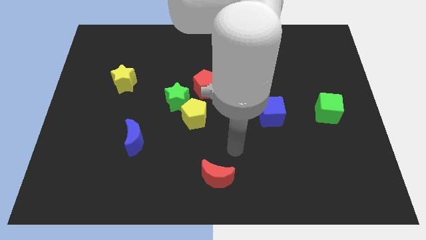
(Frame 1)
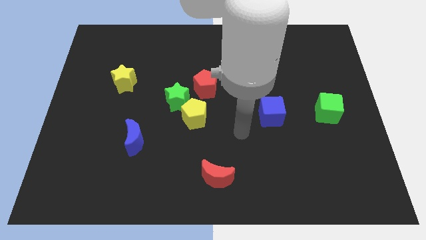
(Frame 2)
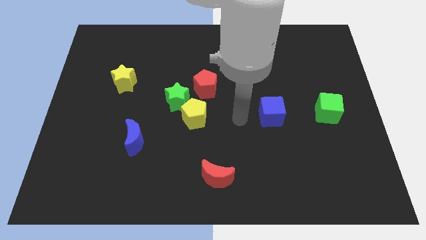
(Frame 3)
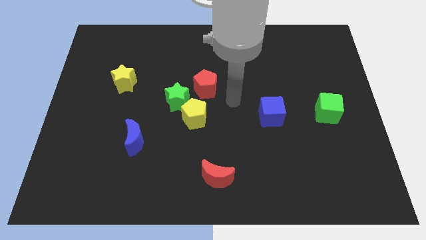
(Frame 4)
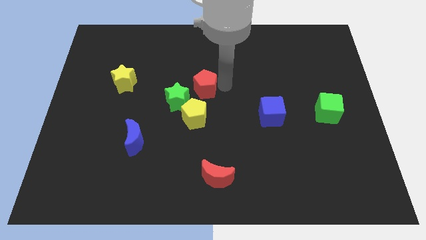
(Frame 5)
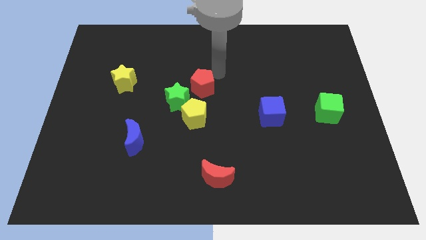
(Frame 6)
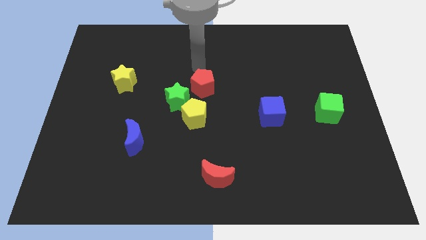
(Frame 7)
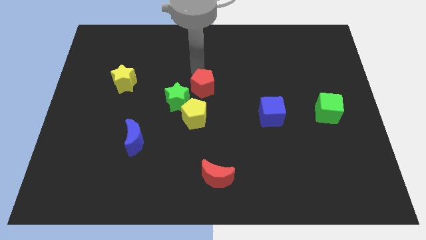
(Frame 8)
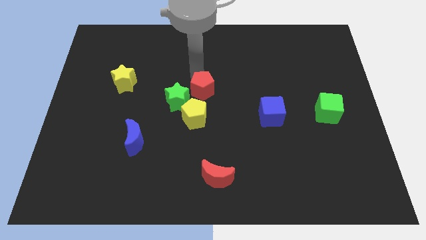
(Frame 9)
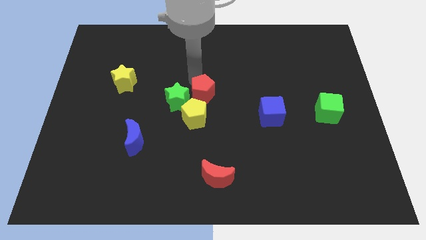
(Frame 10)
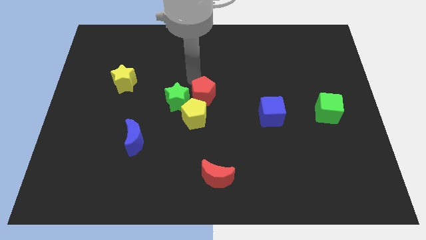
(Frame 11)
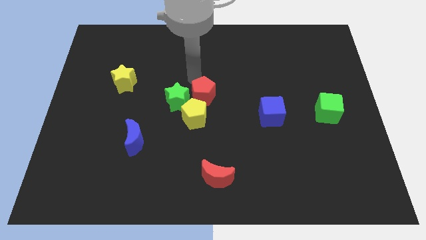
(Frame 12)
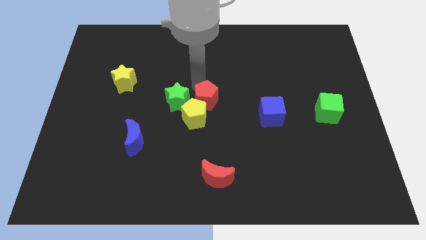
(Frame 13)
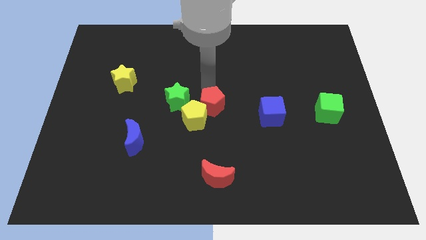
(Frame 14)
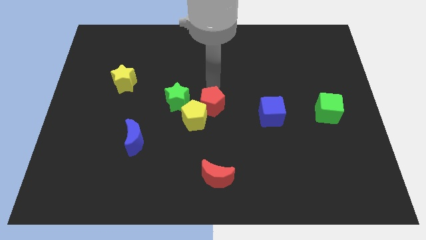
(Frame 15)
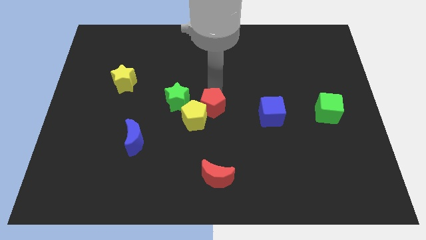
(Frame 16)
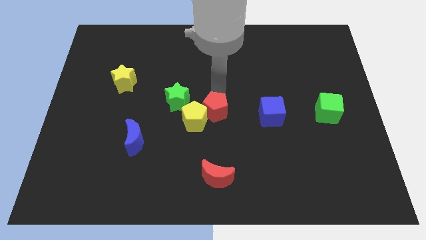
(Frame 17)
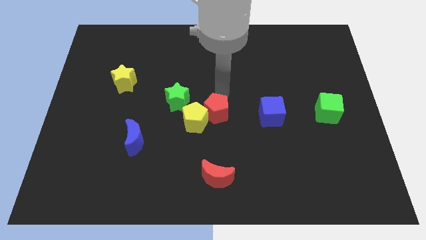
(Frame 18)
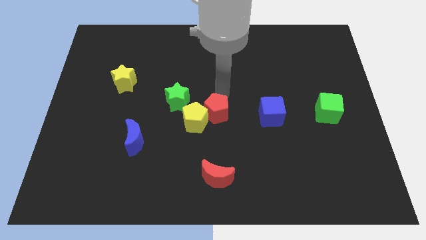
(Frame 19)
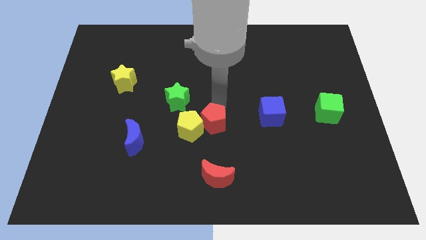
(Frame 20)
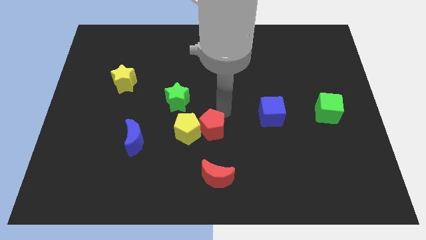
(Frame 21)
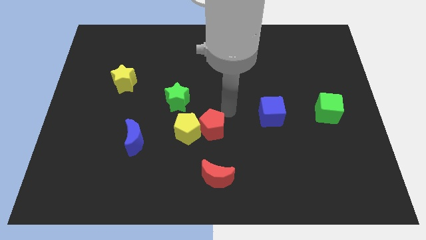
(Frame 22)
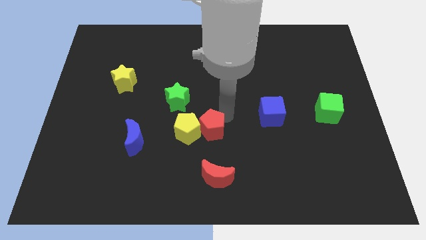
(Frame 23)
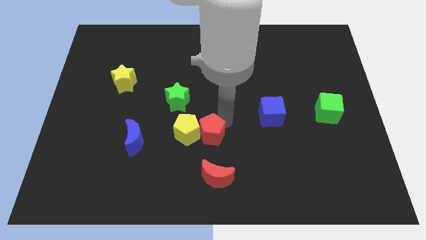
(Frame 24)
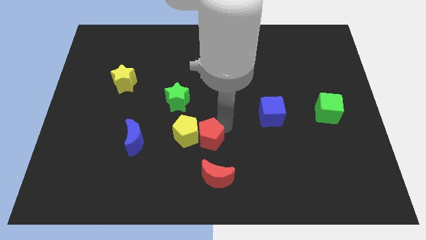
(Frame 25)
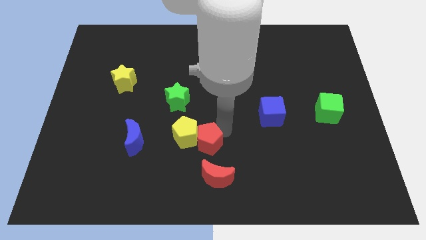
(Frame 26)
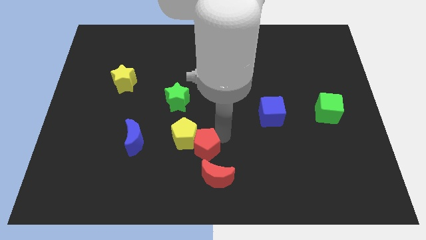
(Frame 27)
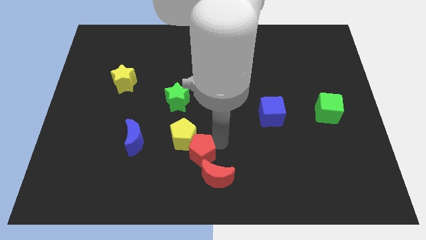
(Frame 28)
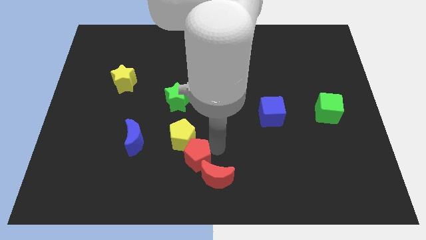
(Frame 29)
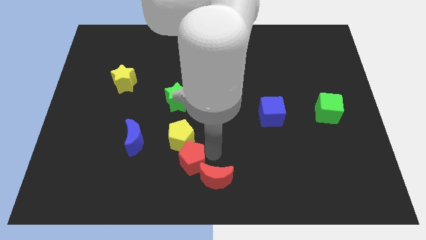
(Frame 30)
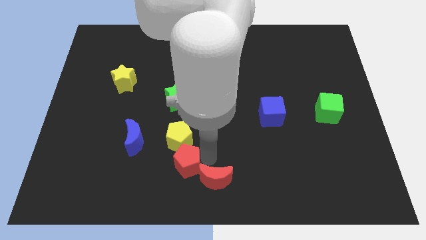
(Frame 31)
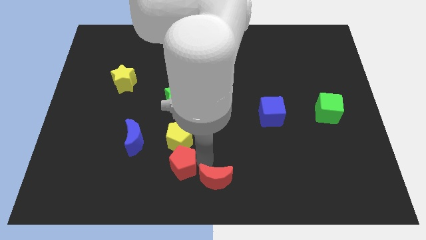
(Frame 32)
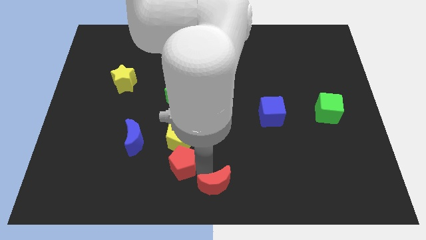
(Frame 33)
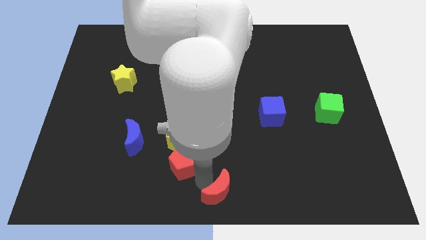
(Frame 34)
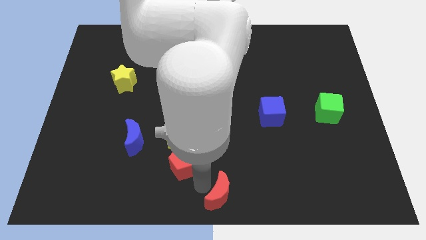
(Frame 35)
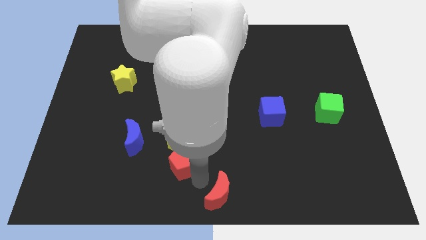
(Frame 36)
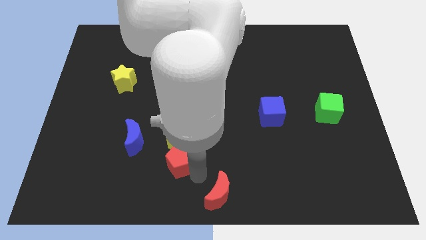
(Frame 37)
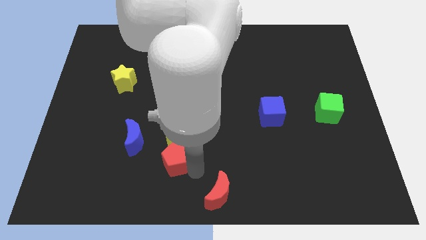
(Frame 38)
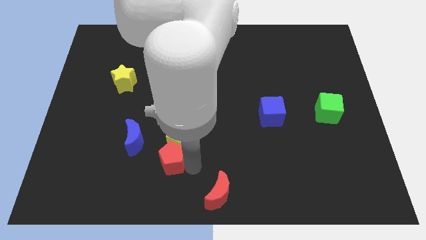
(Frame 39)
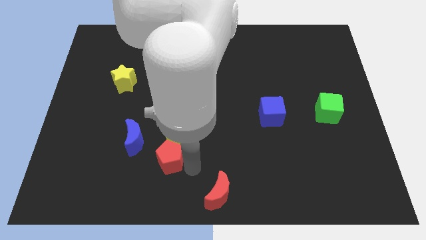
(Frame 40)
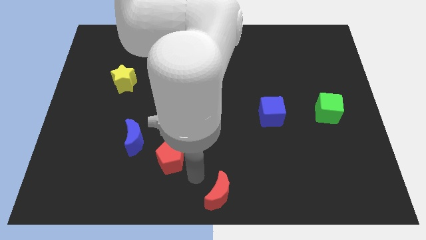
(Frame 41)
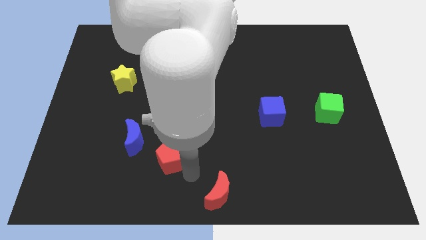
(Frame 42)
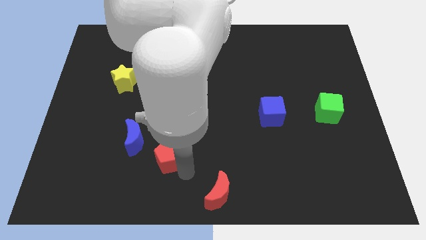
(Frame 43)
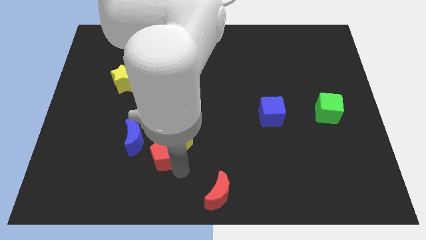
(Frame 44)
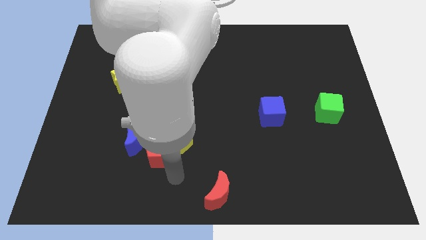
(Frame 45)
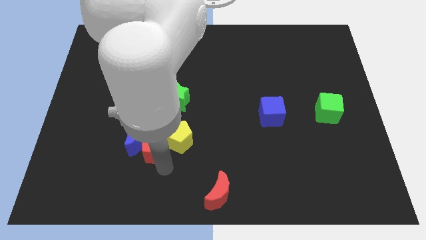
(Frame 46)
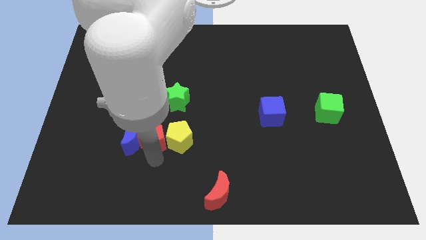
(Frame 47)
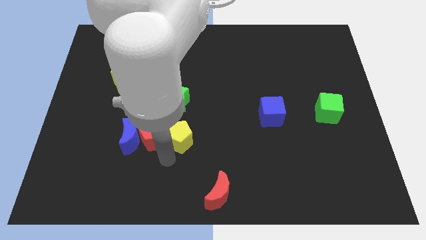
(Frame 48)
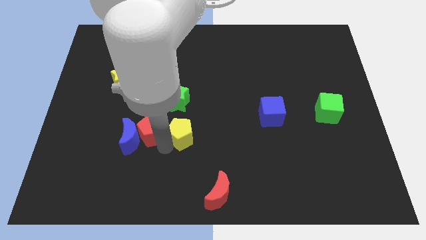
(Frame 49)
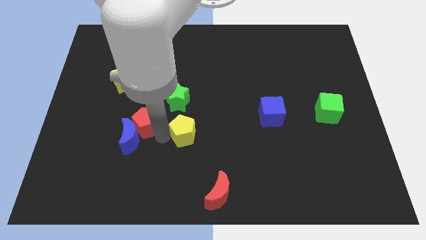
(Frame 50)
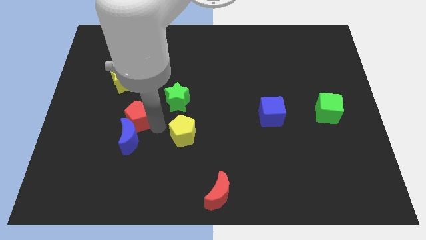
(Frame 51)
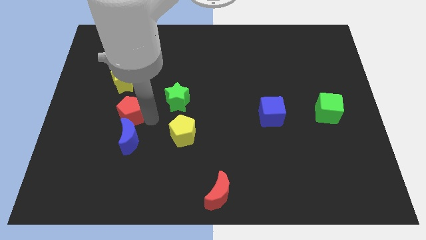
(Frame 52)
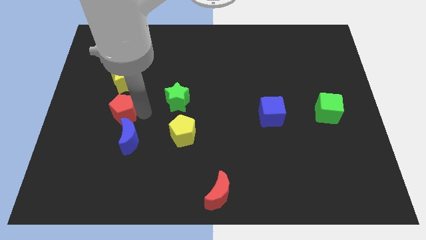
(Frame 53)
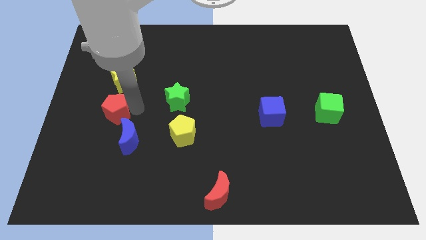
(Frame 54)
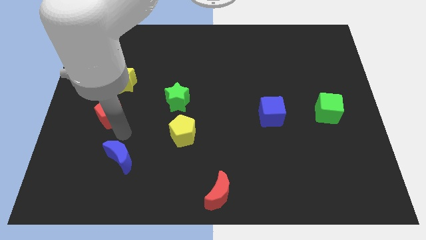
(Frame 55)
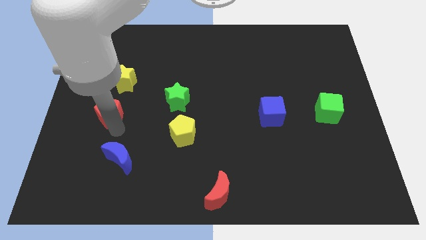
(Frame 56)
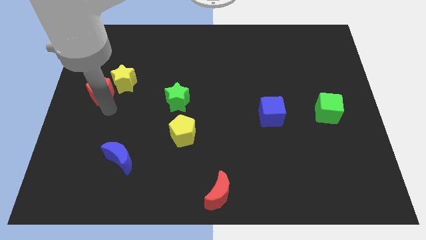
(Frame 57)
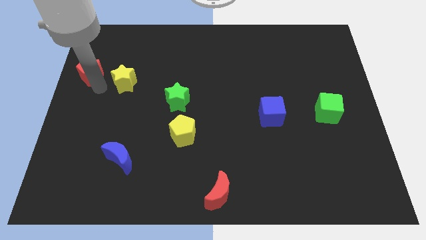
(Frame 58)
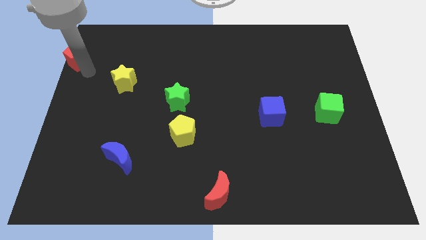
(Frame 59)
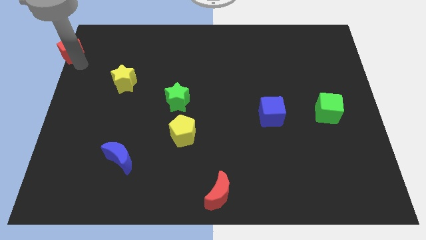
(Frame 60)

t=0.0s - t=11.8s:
slide the red pentagon to the top left of the board

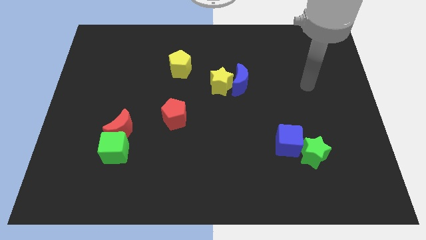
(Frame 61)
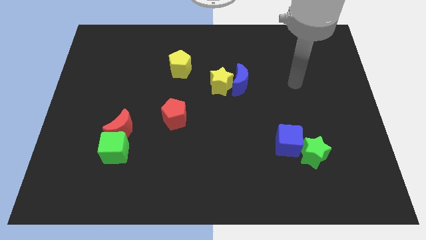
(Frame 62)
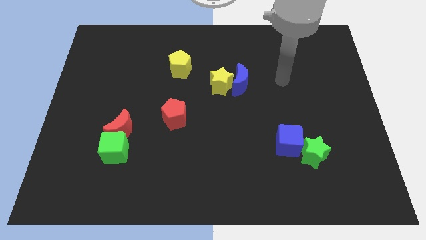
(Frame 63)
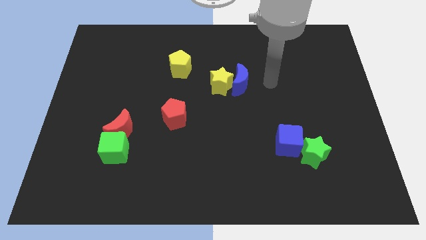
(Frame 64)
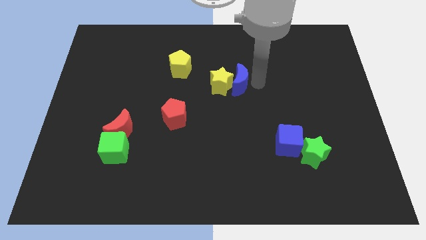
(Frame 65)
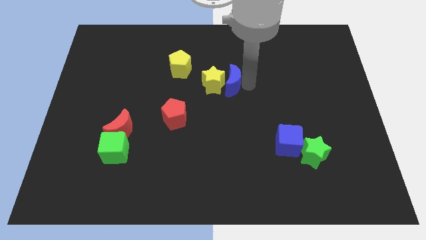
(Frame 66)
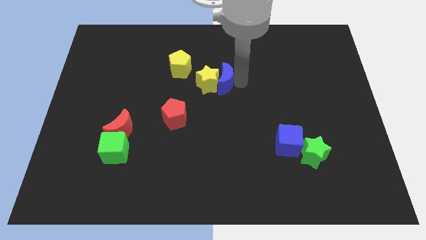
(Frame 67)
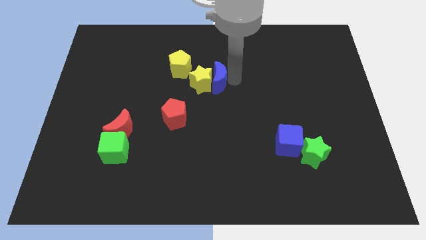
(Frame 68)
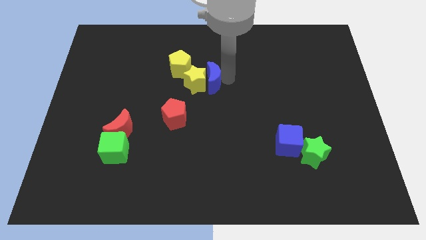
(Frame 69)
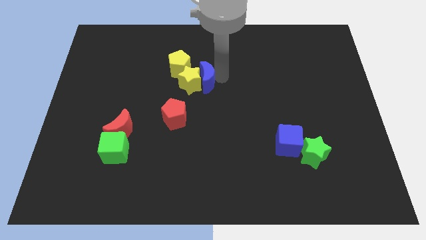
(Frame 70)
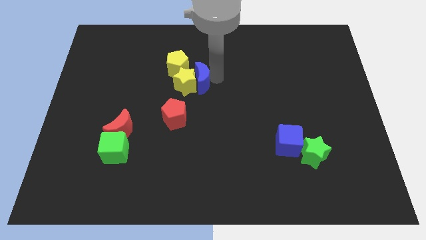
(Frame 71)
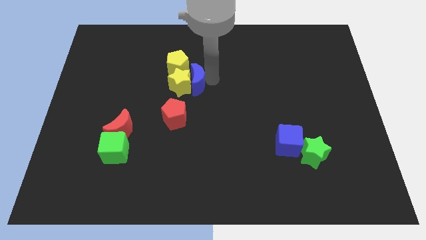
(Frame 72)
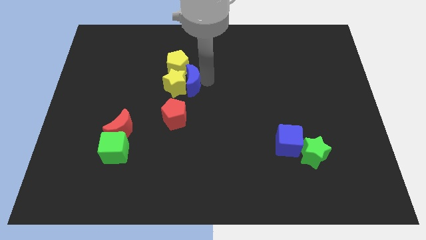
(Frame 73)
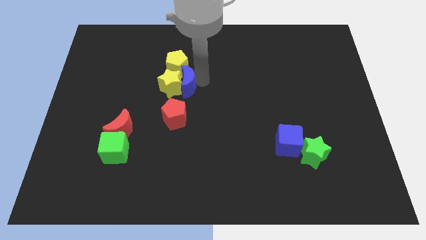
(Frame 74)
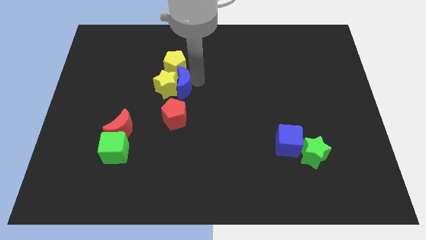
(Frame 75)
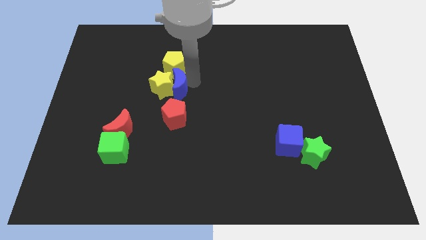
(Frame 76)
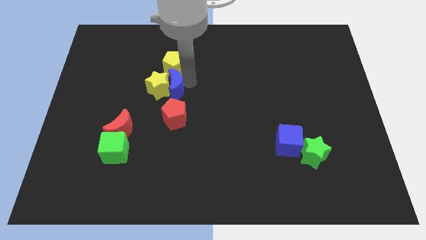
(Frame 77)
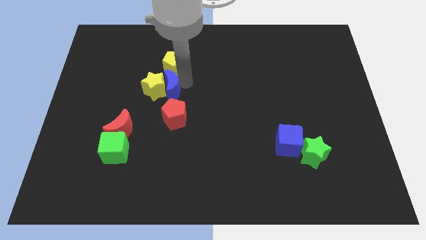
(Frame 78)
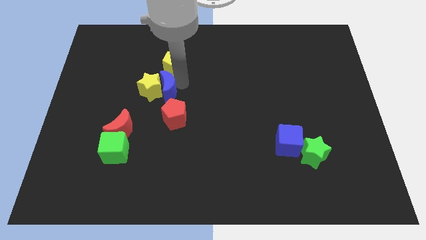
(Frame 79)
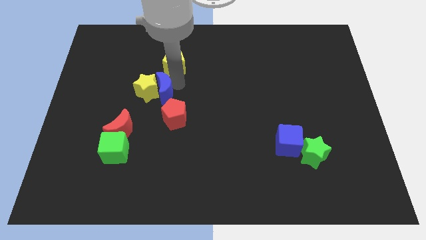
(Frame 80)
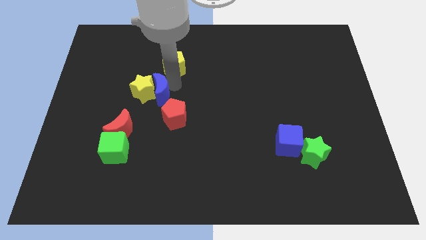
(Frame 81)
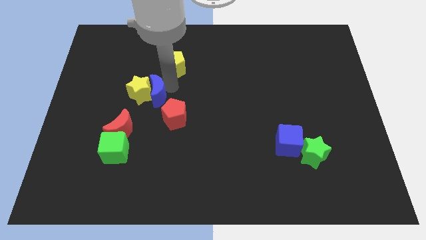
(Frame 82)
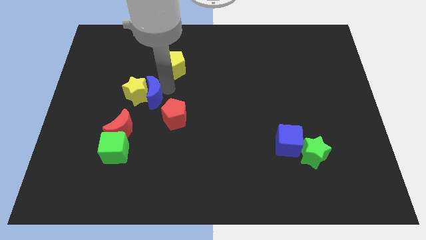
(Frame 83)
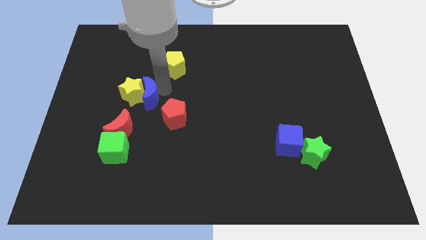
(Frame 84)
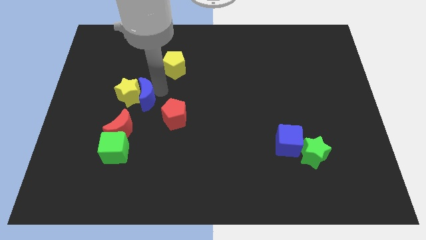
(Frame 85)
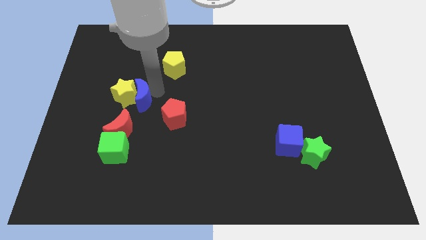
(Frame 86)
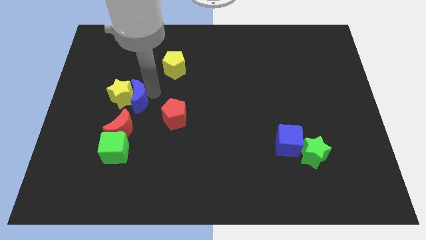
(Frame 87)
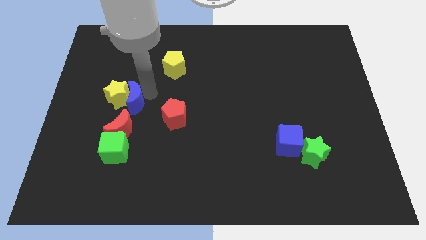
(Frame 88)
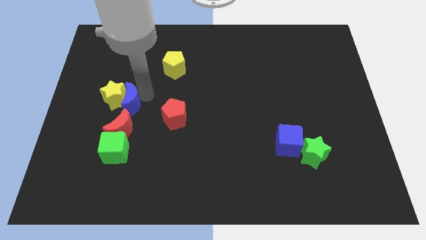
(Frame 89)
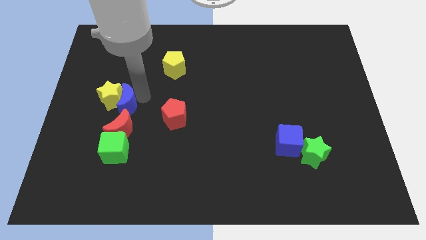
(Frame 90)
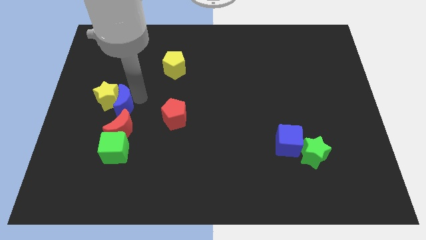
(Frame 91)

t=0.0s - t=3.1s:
move the yellow star to the left side
